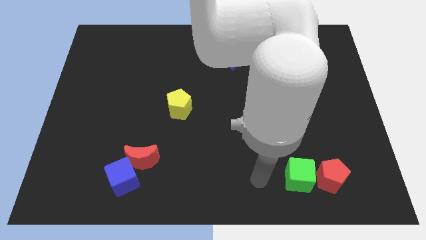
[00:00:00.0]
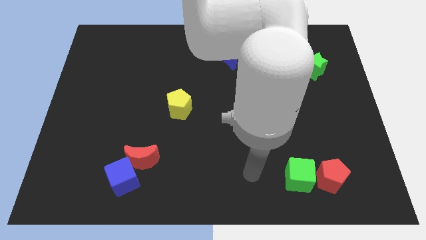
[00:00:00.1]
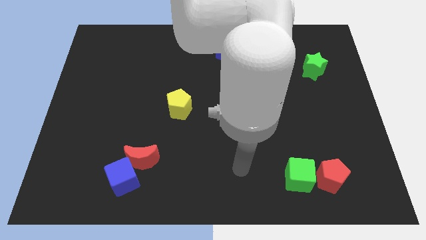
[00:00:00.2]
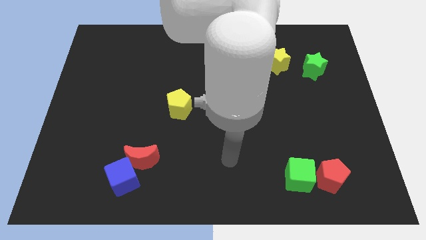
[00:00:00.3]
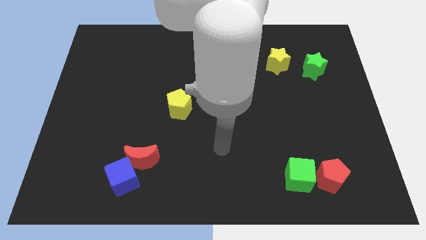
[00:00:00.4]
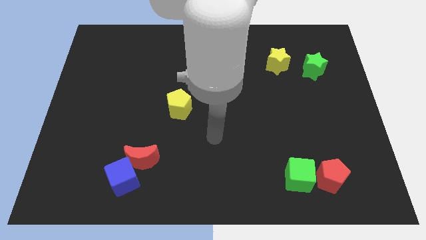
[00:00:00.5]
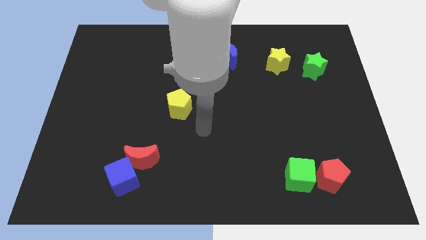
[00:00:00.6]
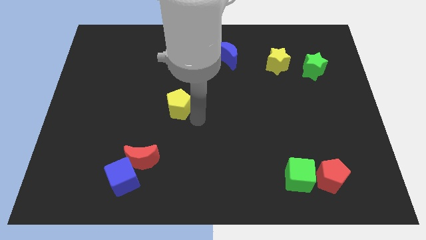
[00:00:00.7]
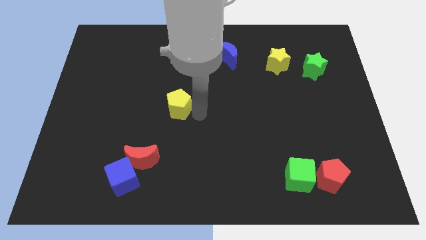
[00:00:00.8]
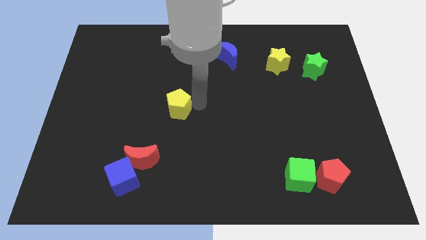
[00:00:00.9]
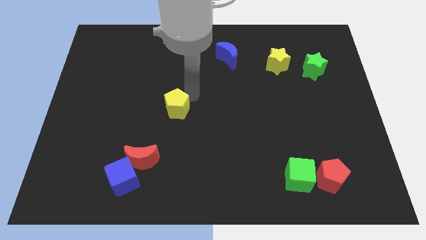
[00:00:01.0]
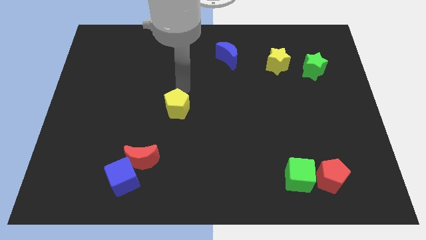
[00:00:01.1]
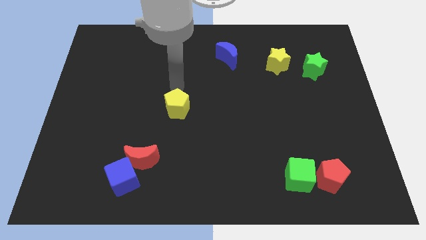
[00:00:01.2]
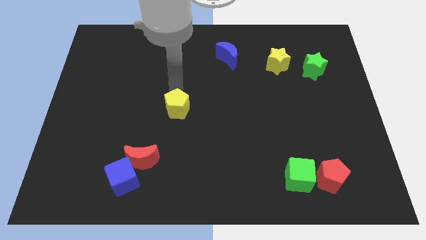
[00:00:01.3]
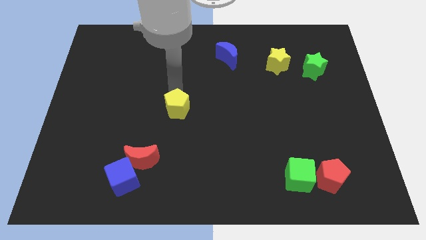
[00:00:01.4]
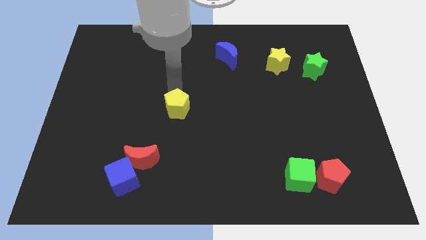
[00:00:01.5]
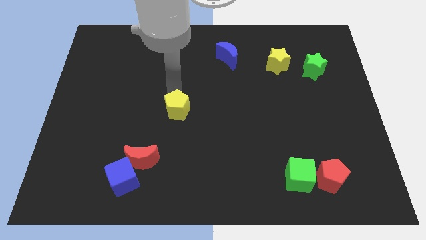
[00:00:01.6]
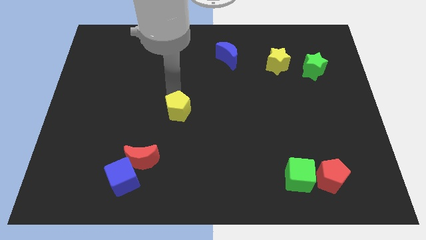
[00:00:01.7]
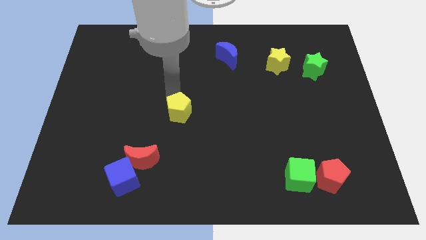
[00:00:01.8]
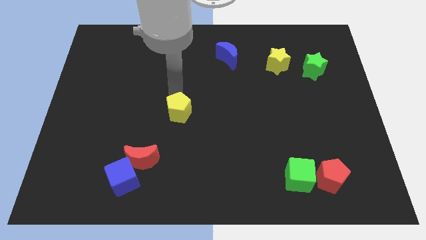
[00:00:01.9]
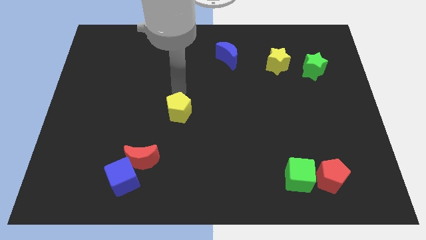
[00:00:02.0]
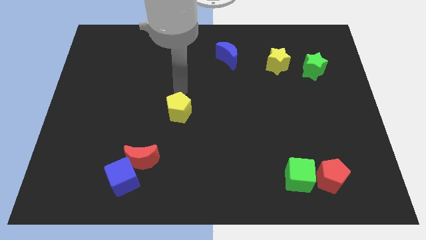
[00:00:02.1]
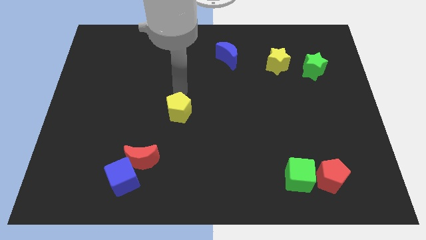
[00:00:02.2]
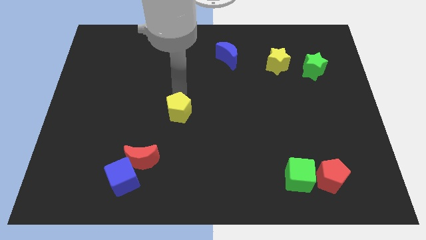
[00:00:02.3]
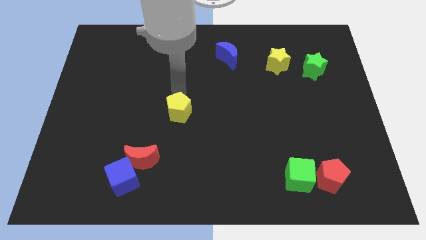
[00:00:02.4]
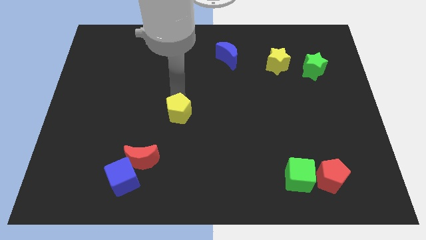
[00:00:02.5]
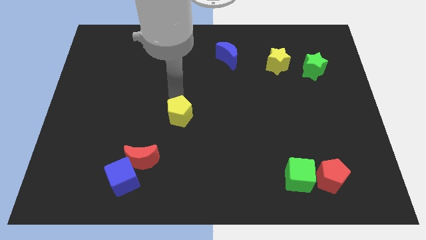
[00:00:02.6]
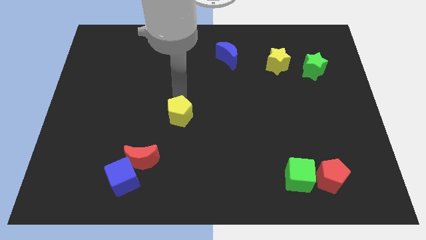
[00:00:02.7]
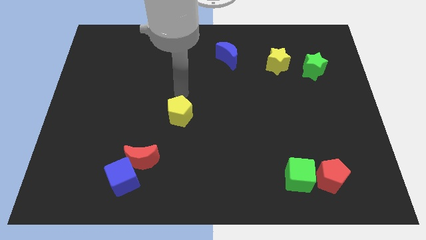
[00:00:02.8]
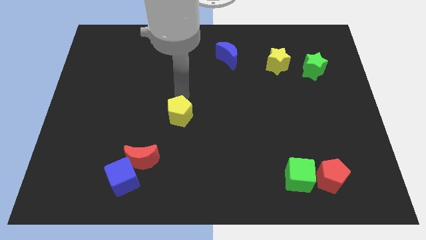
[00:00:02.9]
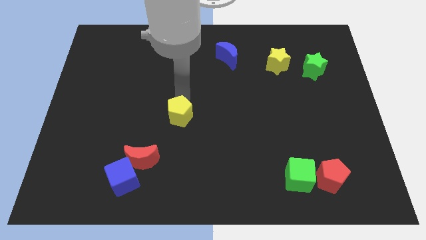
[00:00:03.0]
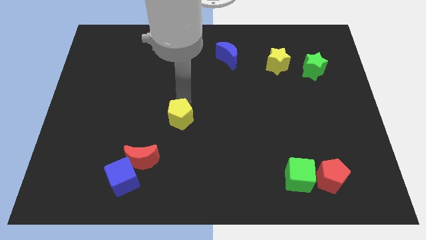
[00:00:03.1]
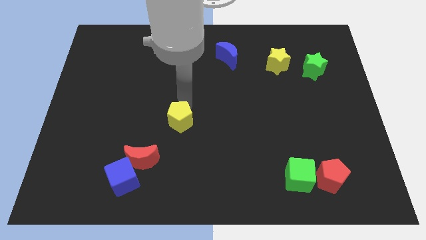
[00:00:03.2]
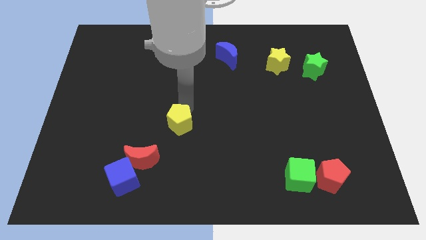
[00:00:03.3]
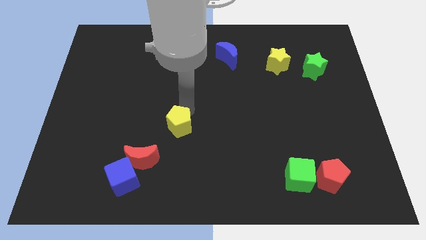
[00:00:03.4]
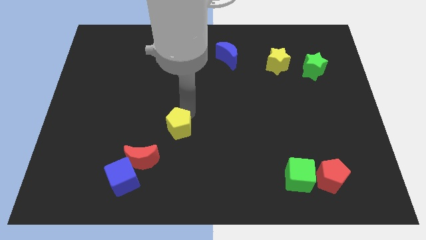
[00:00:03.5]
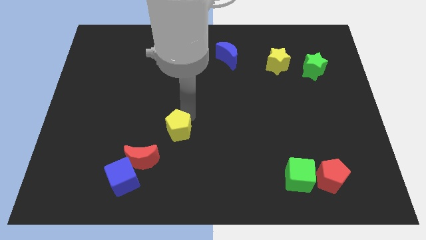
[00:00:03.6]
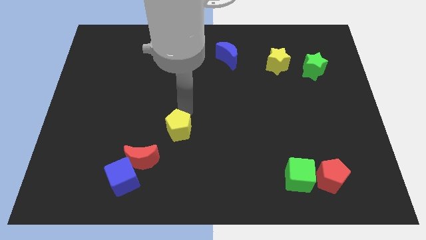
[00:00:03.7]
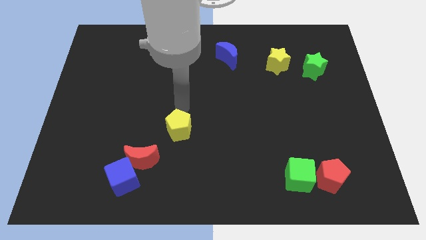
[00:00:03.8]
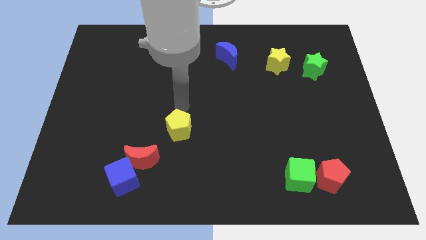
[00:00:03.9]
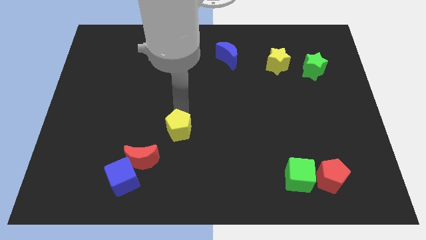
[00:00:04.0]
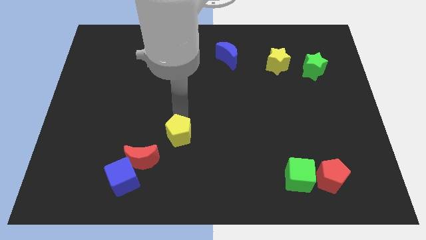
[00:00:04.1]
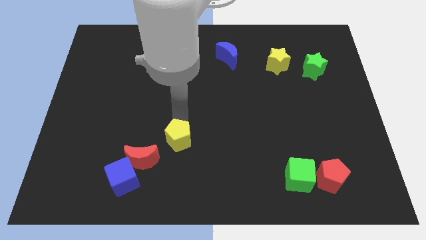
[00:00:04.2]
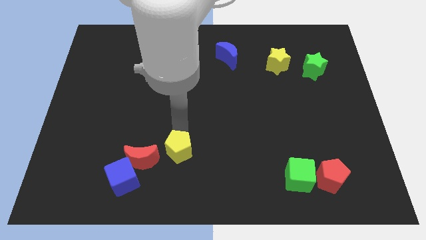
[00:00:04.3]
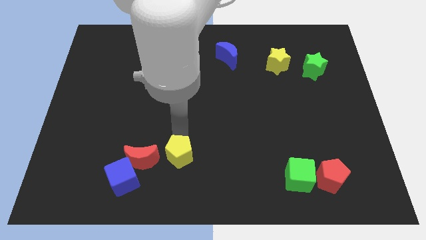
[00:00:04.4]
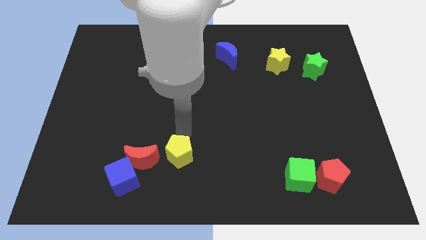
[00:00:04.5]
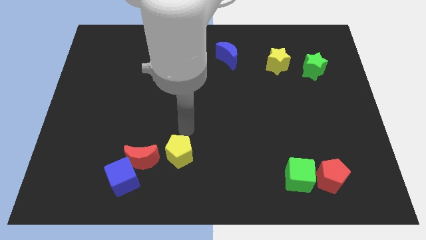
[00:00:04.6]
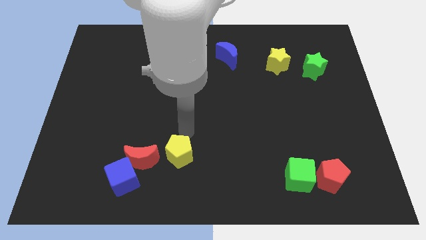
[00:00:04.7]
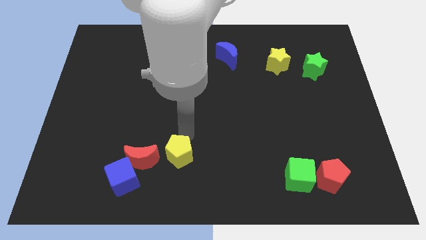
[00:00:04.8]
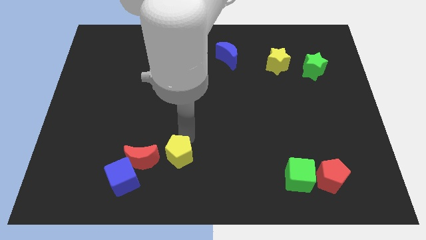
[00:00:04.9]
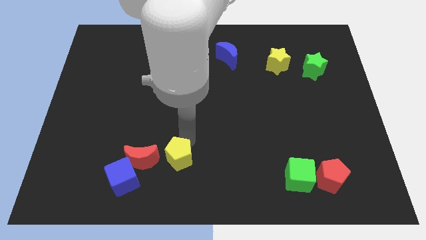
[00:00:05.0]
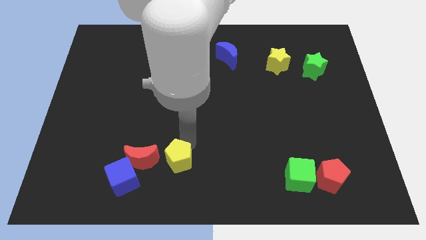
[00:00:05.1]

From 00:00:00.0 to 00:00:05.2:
put the yellow pentagon just right of the blue cube

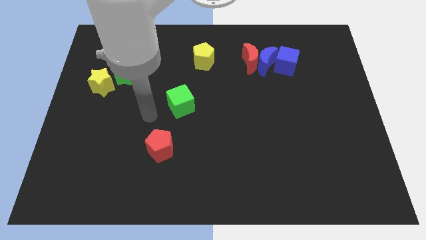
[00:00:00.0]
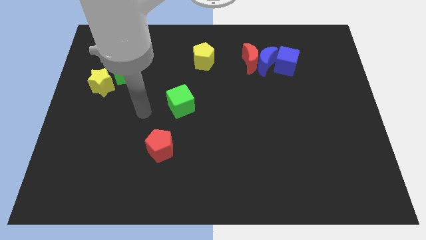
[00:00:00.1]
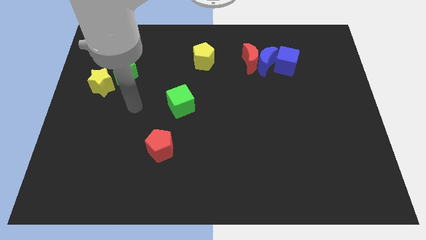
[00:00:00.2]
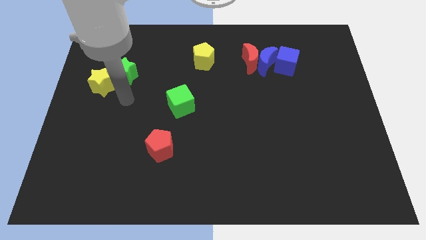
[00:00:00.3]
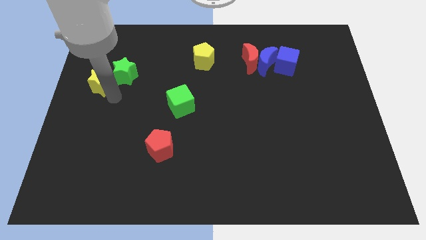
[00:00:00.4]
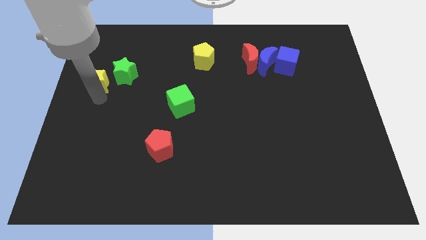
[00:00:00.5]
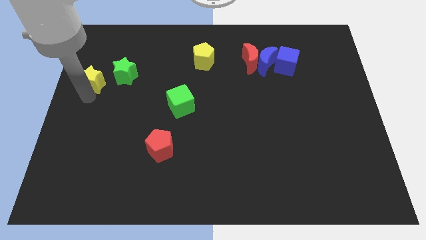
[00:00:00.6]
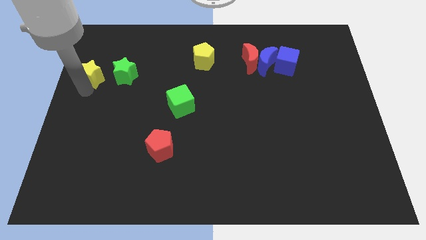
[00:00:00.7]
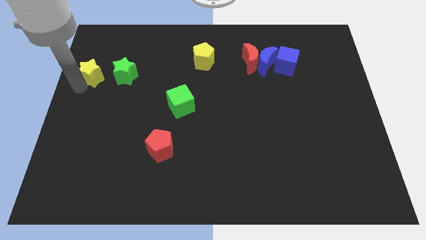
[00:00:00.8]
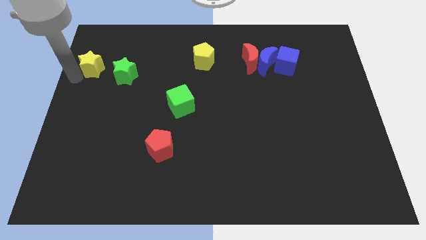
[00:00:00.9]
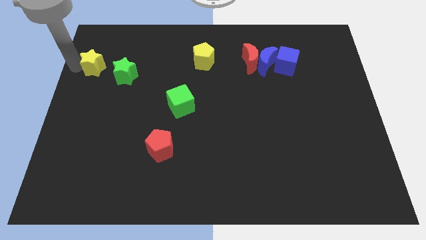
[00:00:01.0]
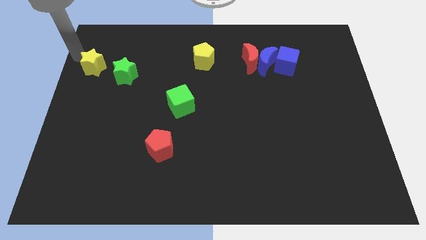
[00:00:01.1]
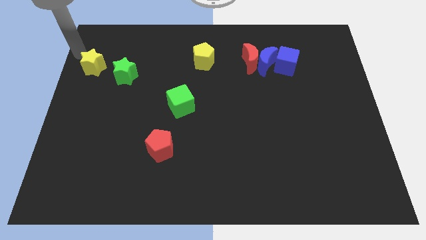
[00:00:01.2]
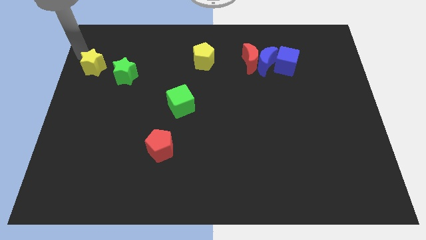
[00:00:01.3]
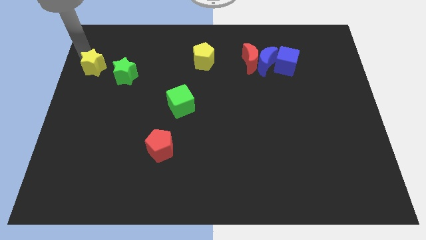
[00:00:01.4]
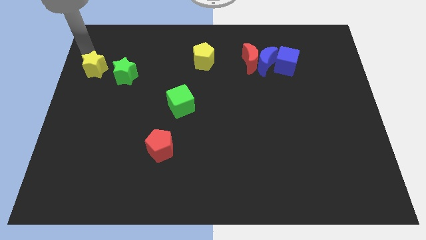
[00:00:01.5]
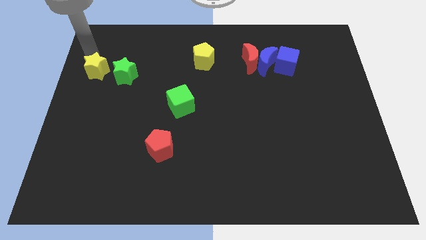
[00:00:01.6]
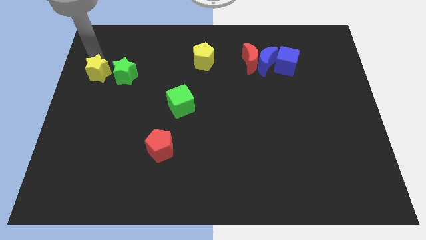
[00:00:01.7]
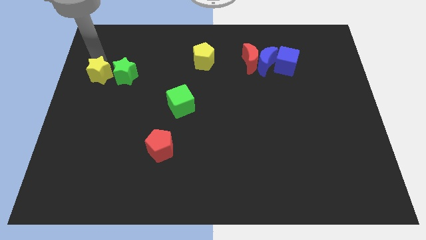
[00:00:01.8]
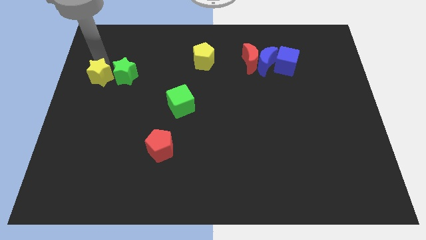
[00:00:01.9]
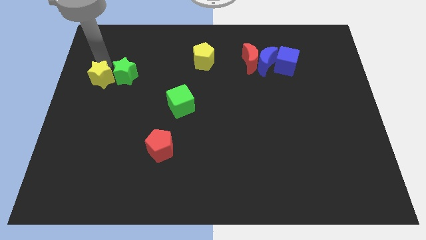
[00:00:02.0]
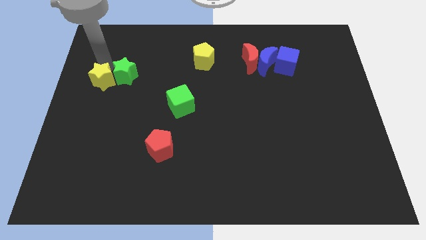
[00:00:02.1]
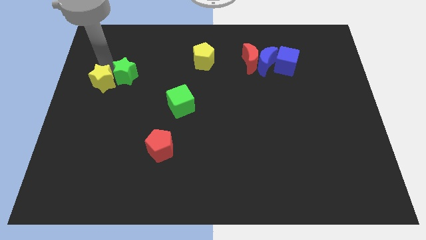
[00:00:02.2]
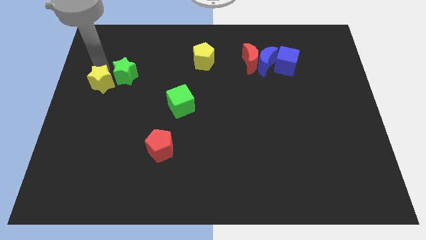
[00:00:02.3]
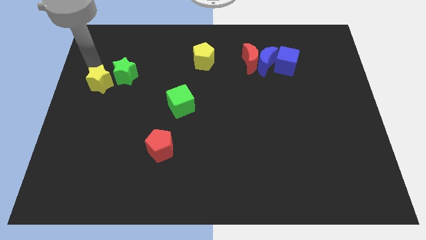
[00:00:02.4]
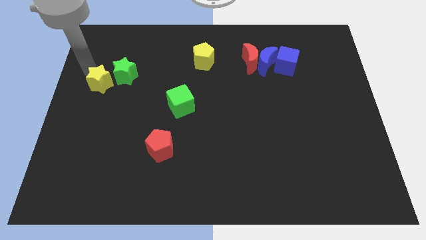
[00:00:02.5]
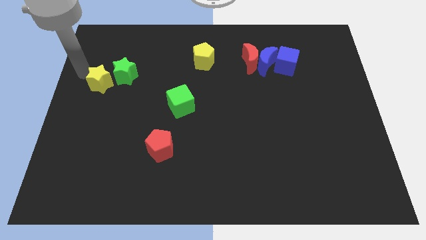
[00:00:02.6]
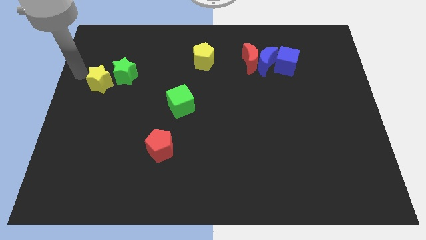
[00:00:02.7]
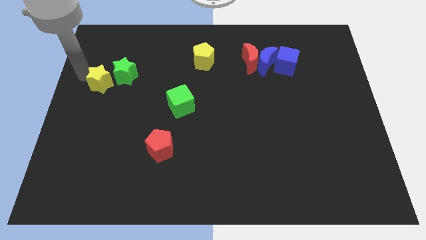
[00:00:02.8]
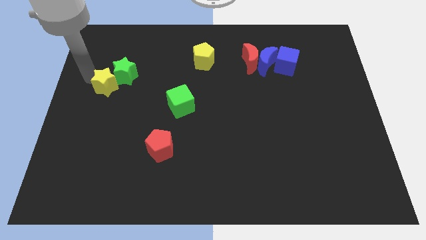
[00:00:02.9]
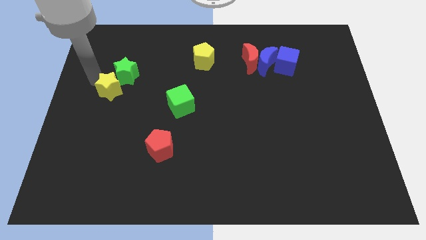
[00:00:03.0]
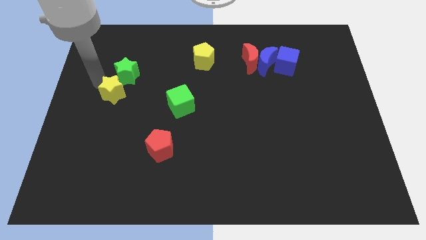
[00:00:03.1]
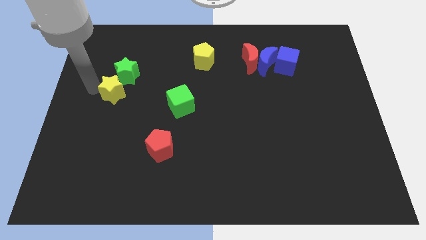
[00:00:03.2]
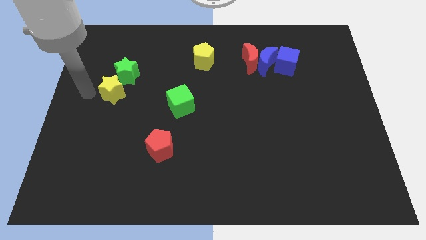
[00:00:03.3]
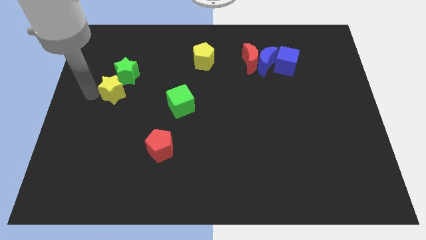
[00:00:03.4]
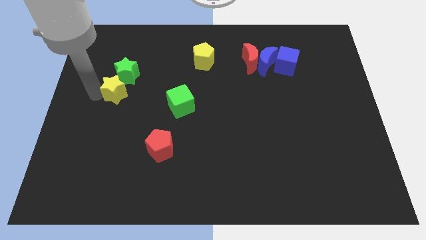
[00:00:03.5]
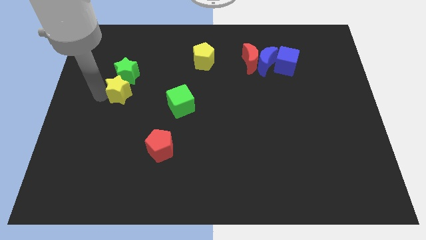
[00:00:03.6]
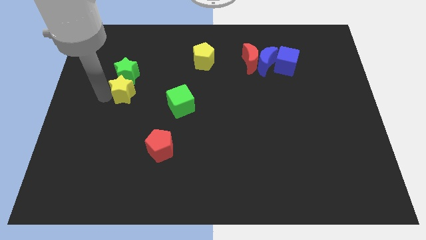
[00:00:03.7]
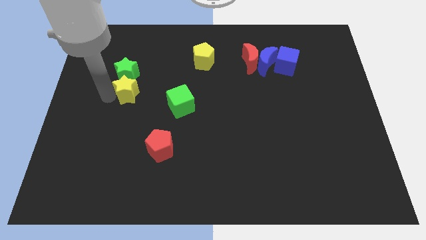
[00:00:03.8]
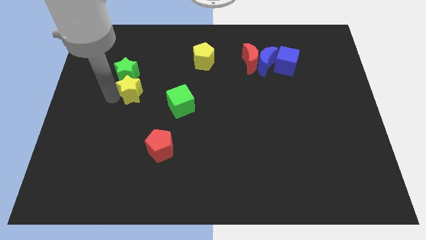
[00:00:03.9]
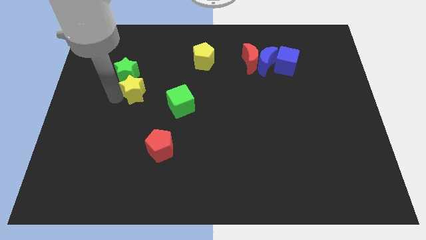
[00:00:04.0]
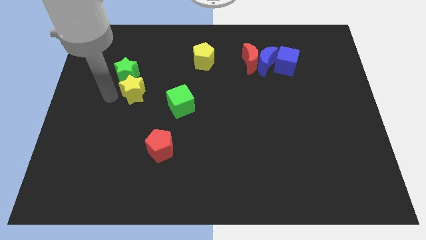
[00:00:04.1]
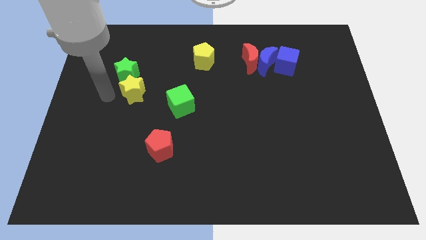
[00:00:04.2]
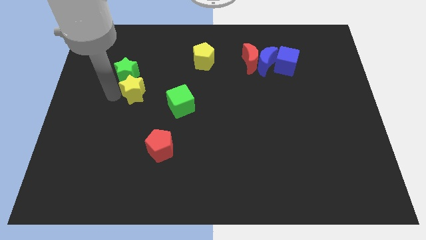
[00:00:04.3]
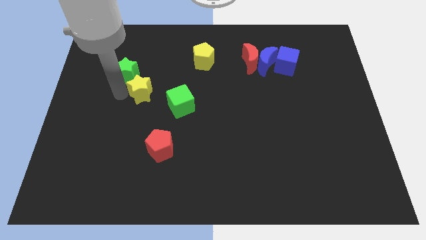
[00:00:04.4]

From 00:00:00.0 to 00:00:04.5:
put the yellow star diagonally up and to the left of the green cube
